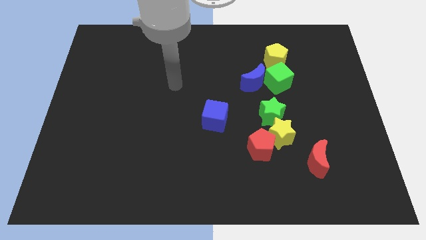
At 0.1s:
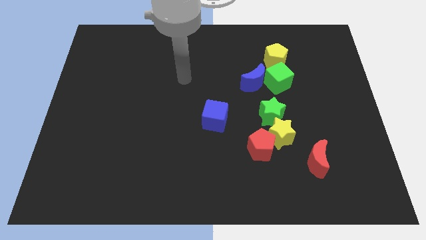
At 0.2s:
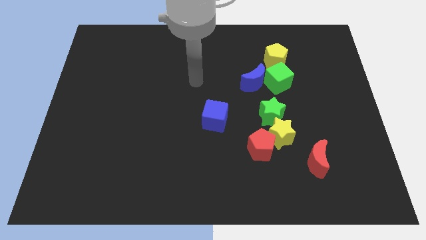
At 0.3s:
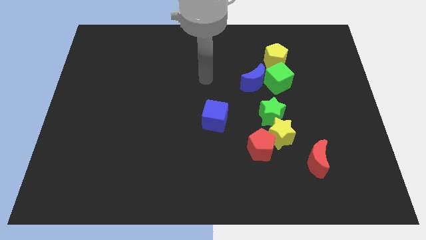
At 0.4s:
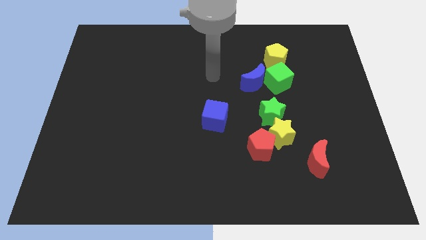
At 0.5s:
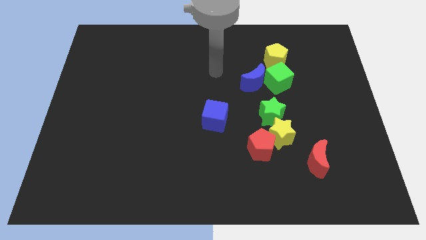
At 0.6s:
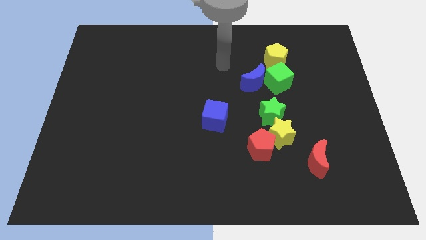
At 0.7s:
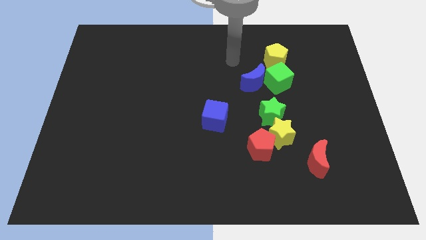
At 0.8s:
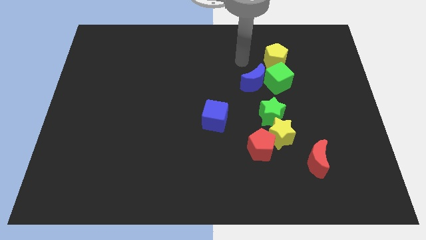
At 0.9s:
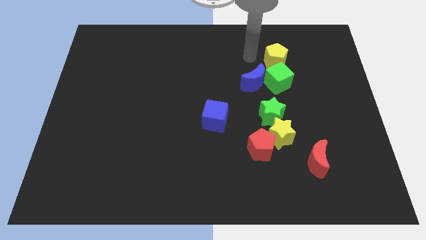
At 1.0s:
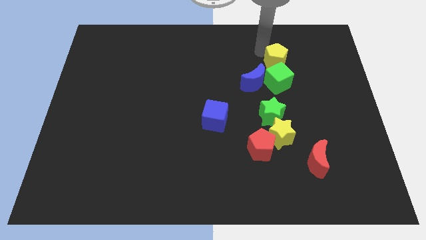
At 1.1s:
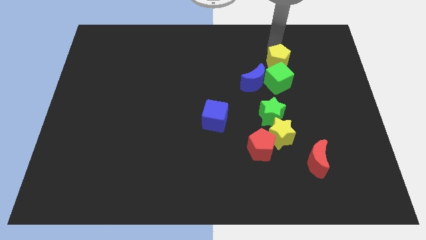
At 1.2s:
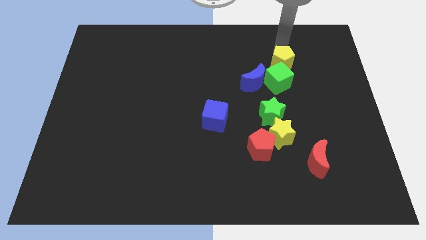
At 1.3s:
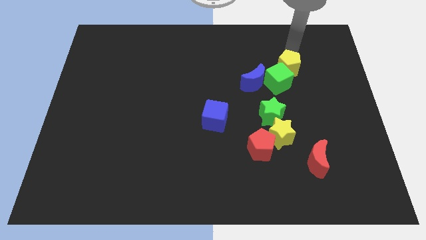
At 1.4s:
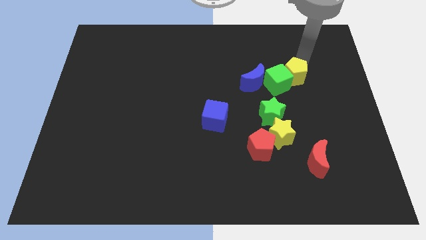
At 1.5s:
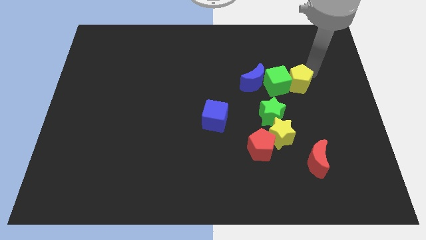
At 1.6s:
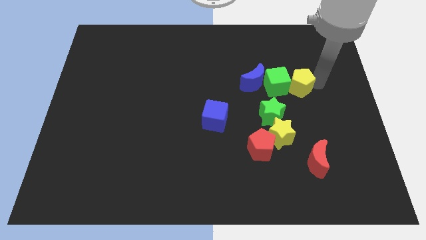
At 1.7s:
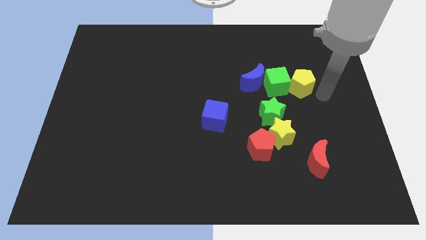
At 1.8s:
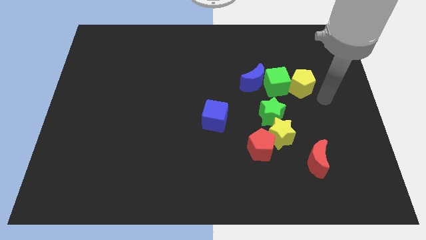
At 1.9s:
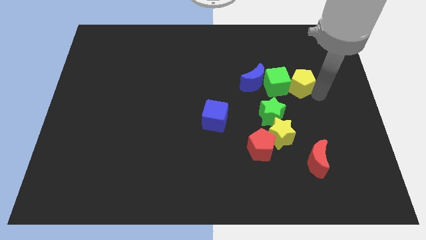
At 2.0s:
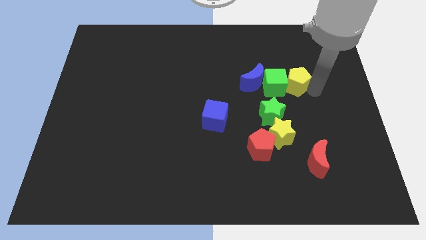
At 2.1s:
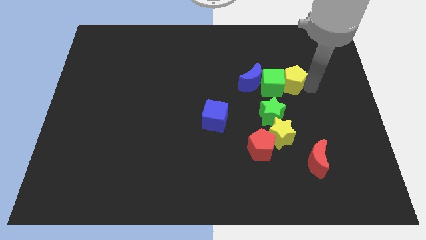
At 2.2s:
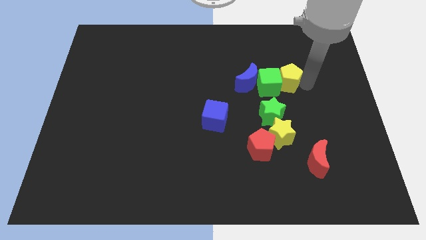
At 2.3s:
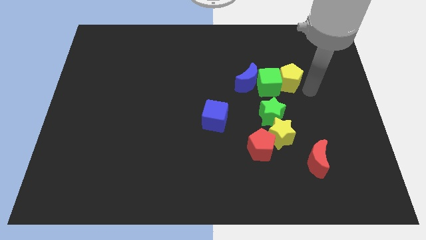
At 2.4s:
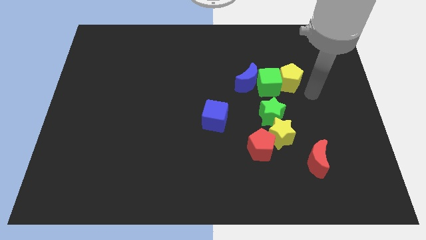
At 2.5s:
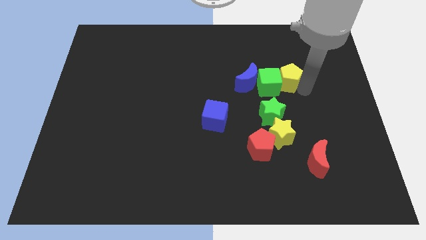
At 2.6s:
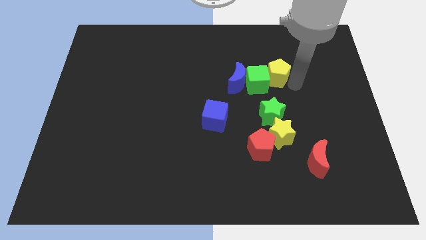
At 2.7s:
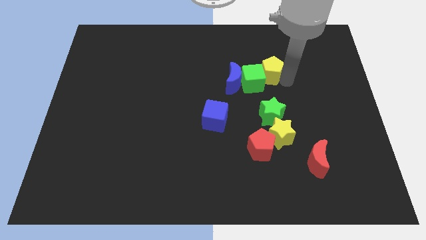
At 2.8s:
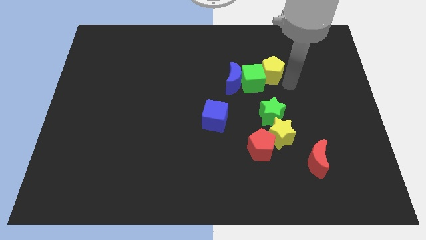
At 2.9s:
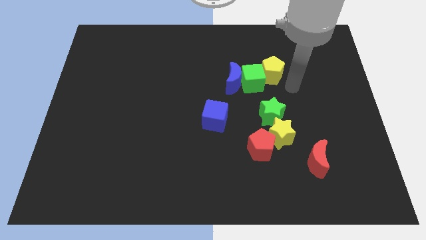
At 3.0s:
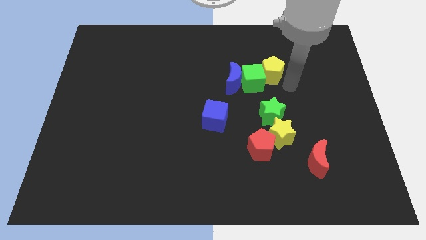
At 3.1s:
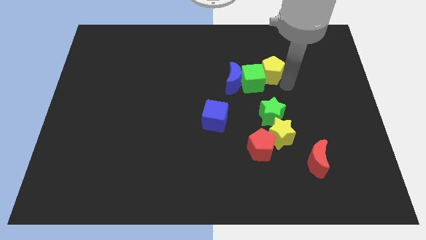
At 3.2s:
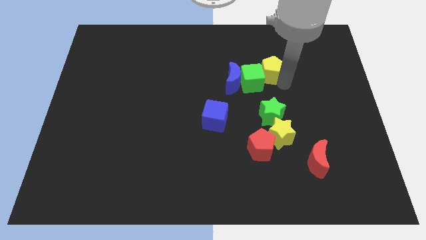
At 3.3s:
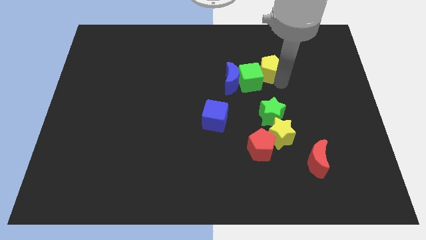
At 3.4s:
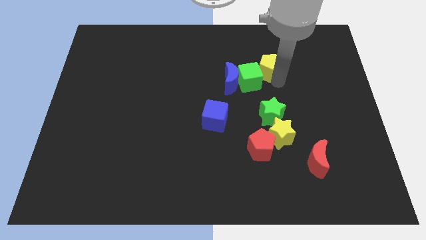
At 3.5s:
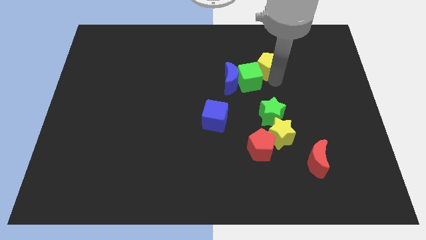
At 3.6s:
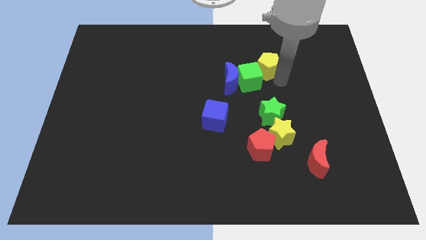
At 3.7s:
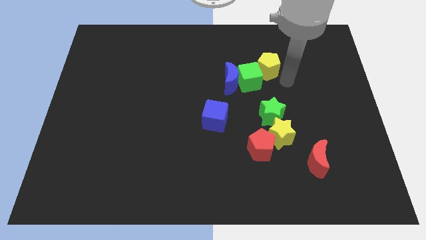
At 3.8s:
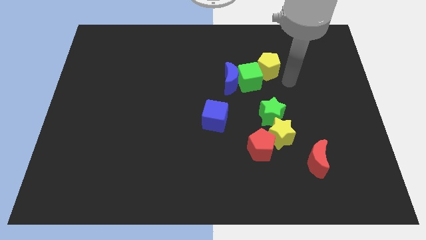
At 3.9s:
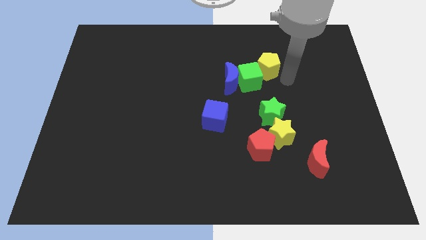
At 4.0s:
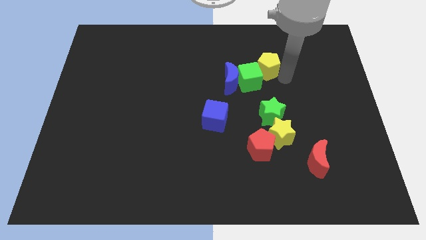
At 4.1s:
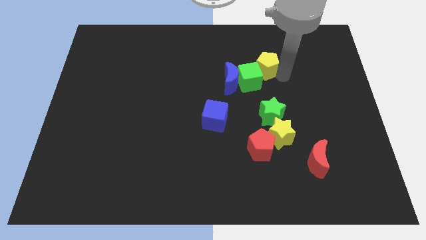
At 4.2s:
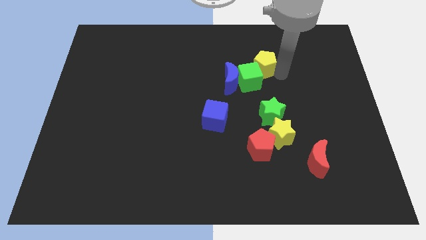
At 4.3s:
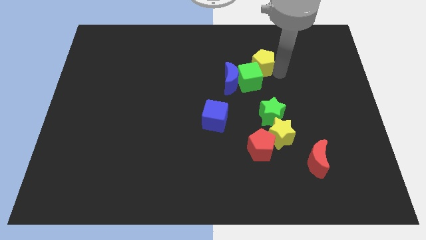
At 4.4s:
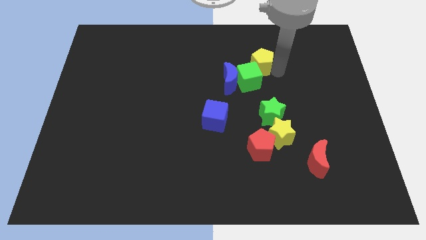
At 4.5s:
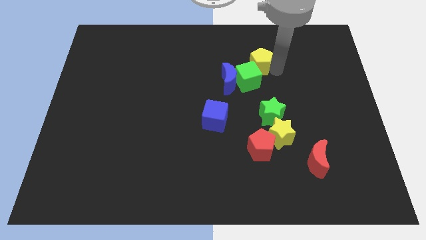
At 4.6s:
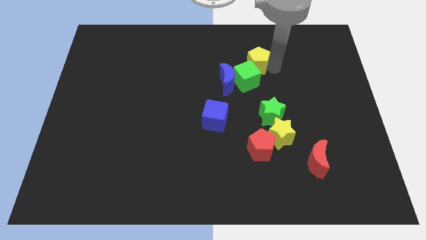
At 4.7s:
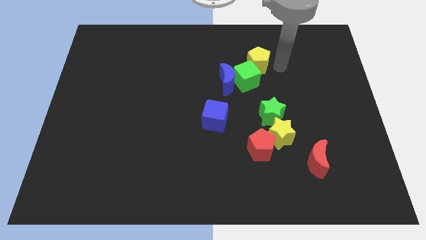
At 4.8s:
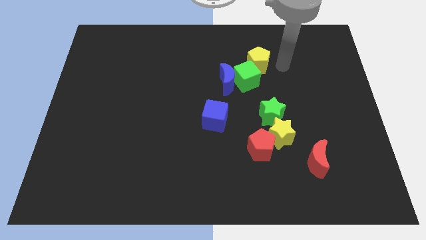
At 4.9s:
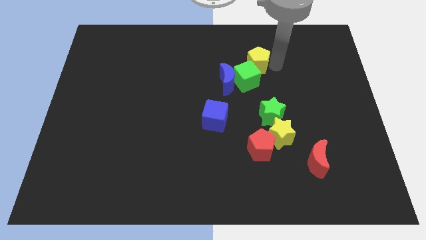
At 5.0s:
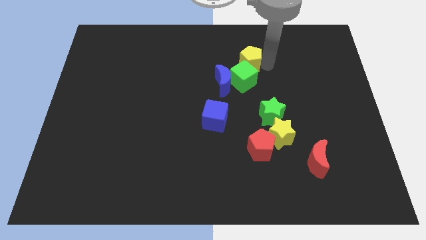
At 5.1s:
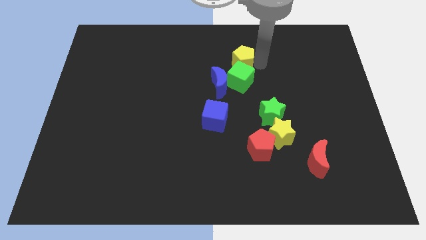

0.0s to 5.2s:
slightly push the yellow pentagon to the left

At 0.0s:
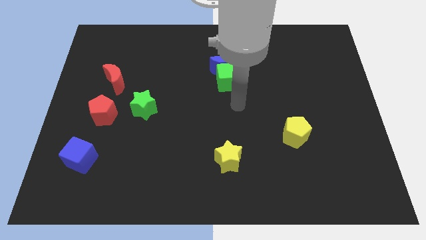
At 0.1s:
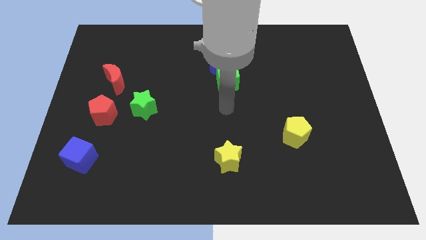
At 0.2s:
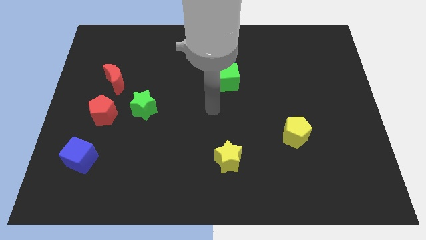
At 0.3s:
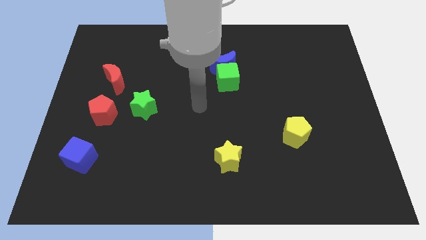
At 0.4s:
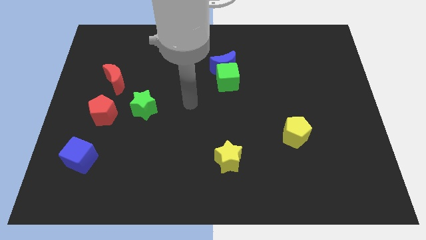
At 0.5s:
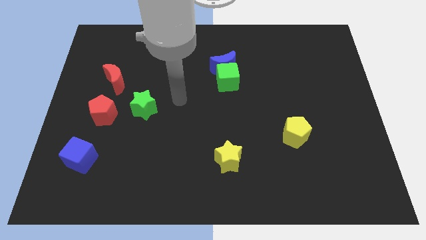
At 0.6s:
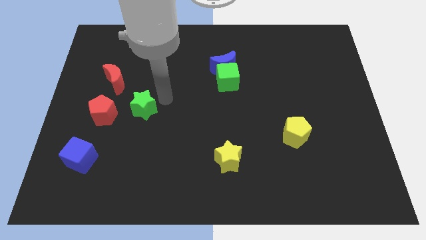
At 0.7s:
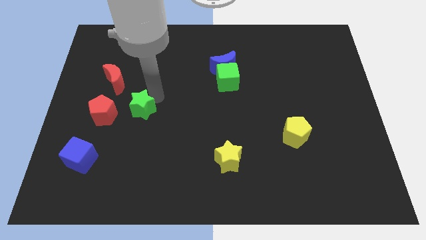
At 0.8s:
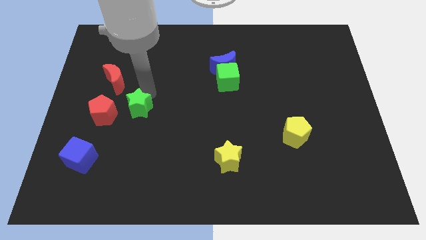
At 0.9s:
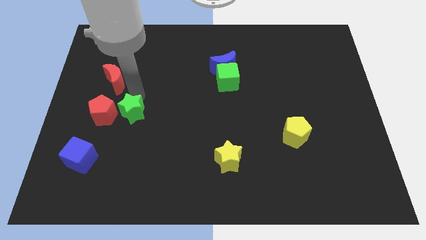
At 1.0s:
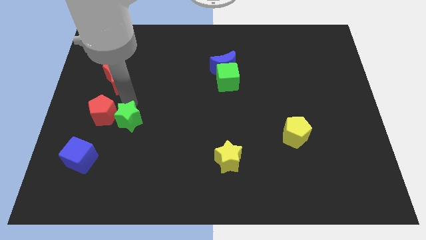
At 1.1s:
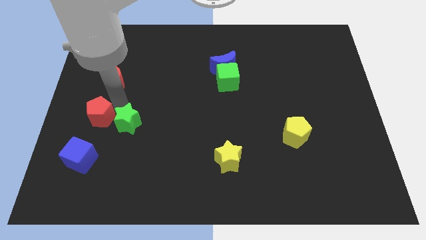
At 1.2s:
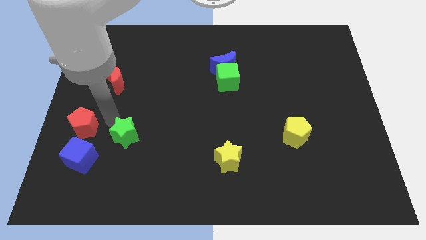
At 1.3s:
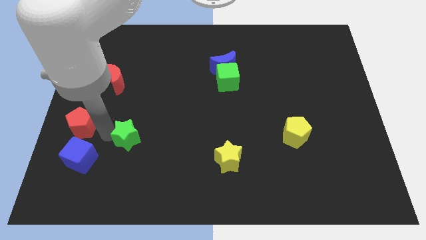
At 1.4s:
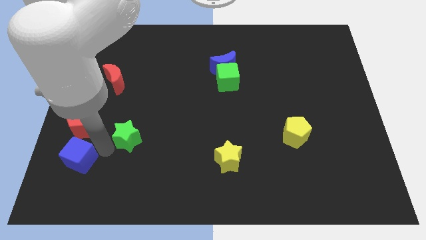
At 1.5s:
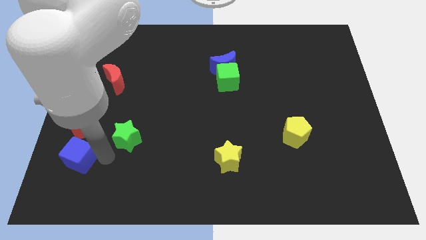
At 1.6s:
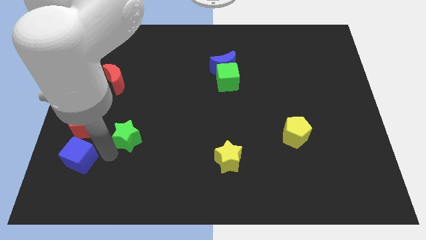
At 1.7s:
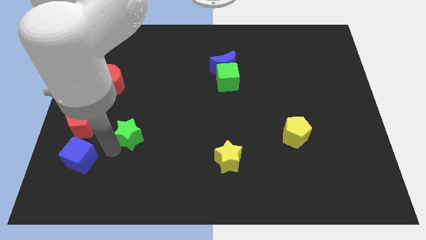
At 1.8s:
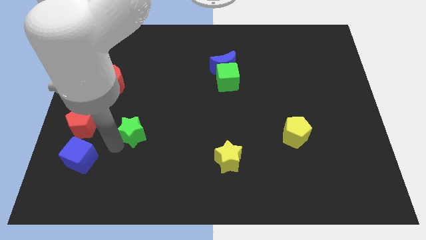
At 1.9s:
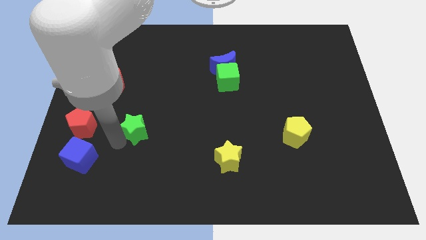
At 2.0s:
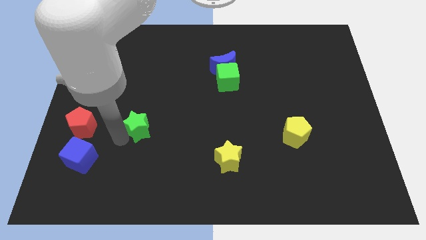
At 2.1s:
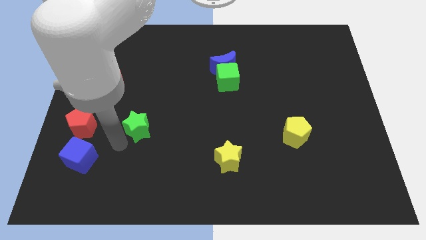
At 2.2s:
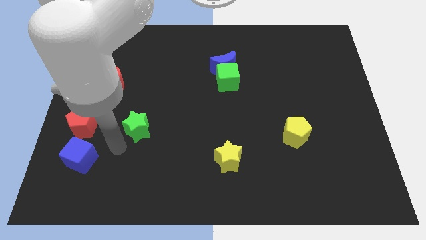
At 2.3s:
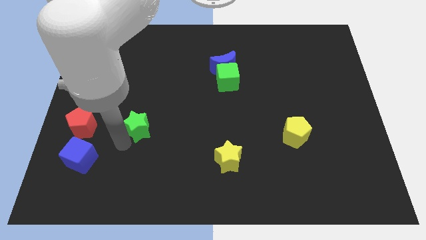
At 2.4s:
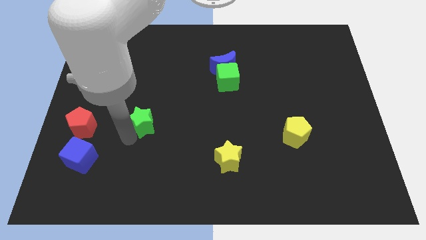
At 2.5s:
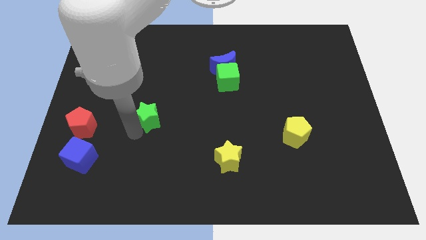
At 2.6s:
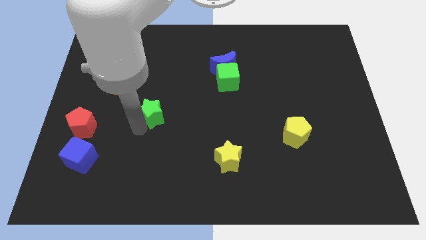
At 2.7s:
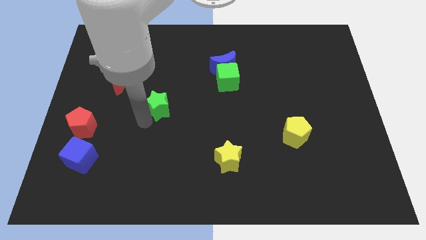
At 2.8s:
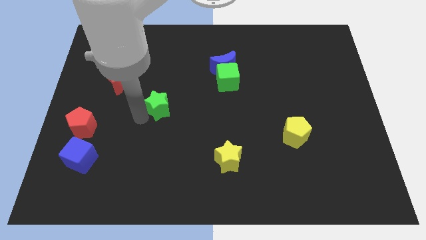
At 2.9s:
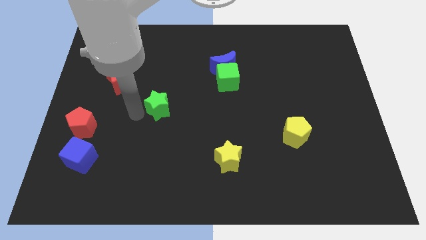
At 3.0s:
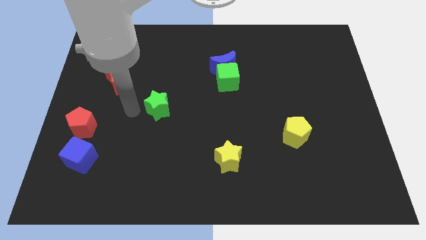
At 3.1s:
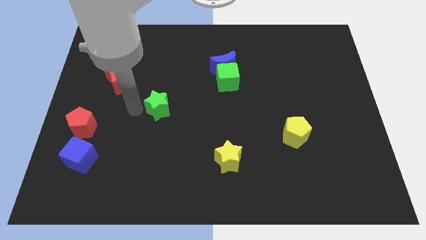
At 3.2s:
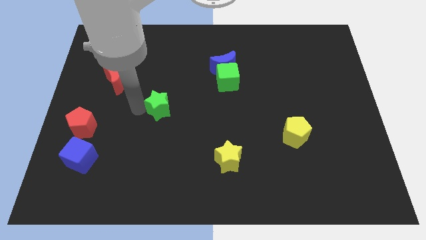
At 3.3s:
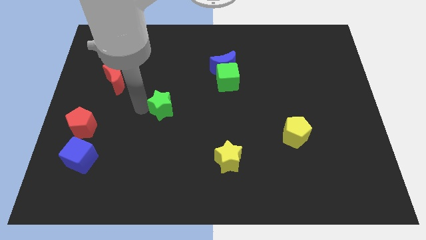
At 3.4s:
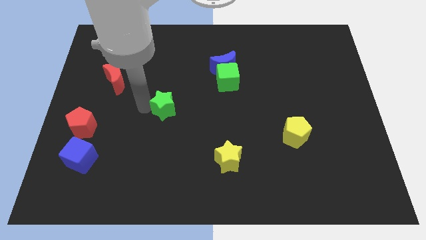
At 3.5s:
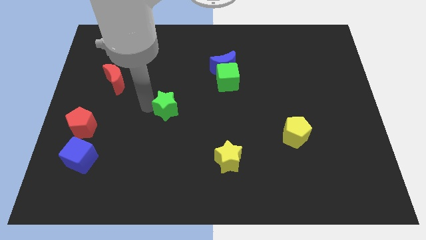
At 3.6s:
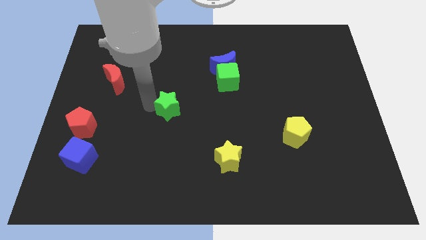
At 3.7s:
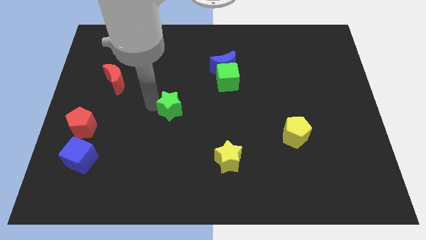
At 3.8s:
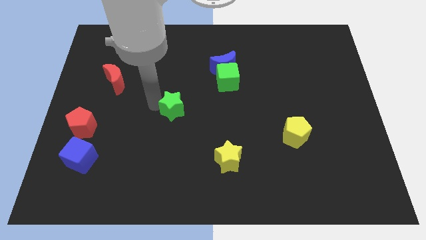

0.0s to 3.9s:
push the green star slightly to the right
